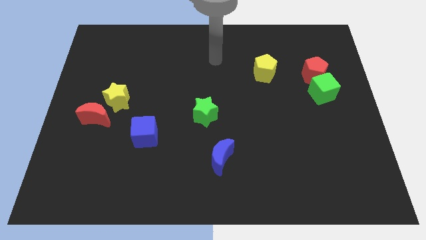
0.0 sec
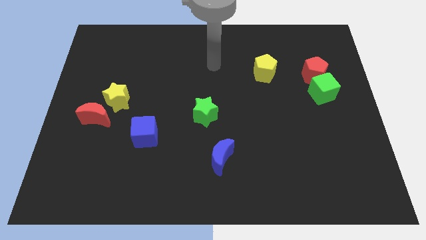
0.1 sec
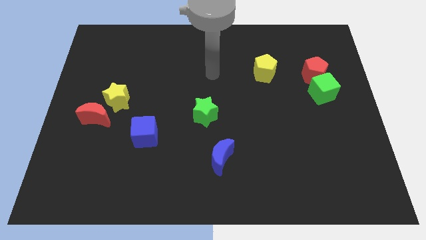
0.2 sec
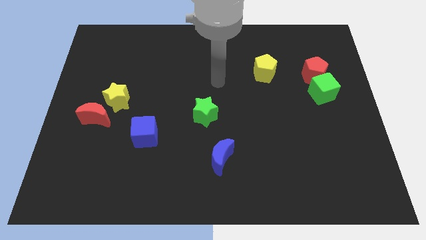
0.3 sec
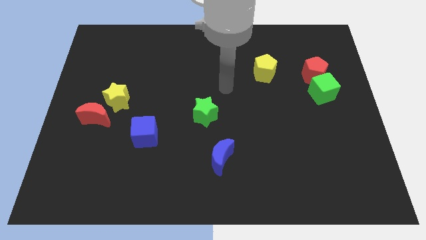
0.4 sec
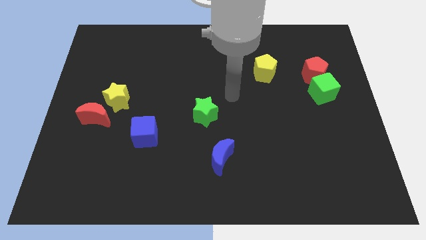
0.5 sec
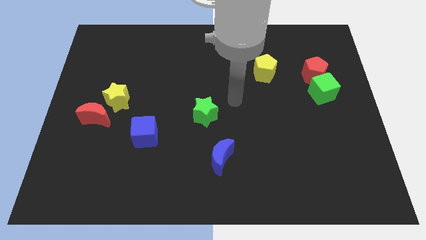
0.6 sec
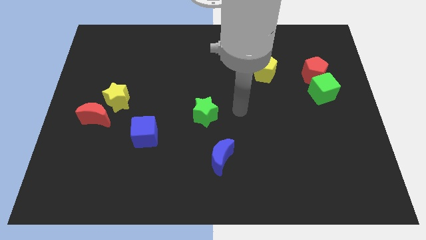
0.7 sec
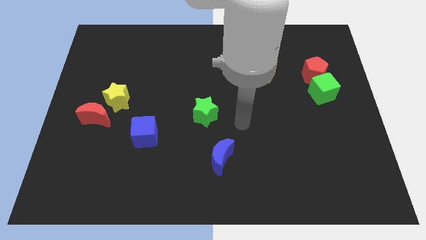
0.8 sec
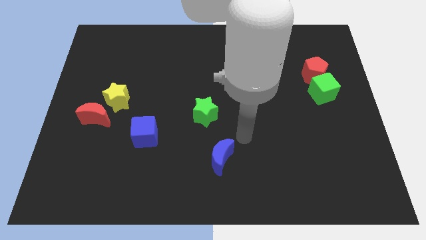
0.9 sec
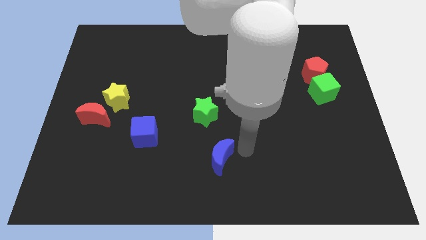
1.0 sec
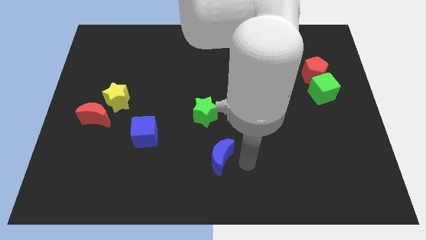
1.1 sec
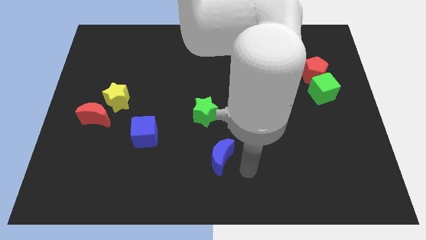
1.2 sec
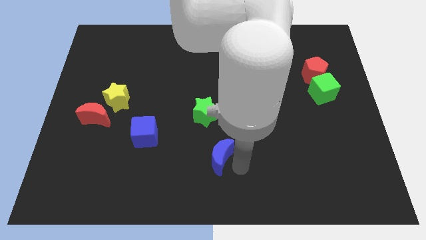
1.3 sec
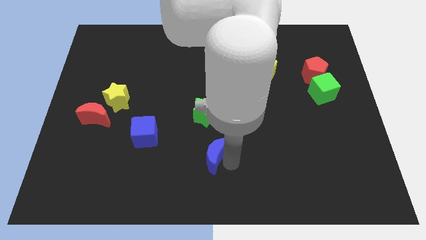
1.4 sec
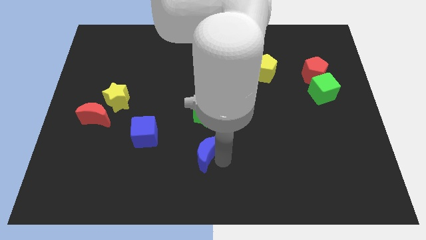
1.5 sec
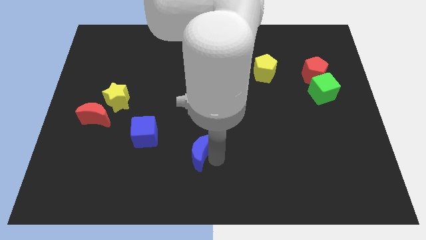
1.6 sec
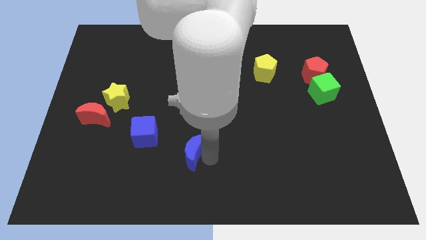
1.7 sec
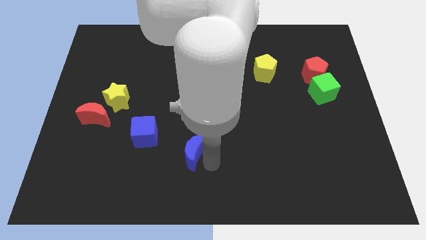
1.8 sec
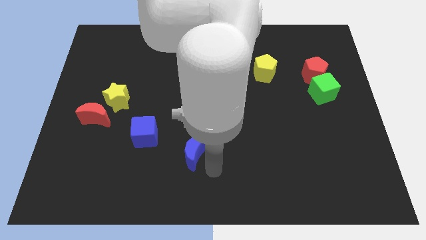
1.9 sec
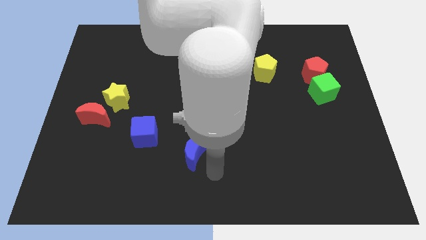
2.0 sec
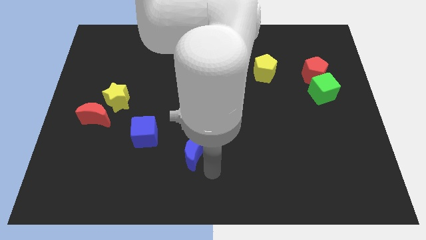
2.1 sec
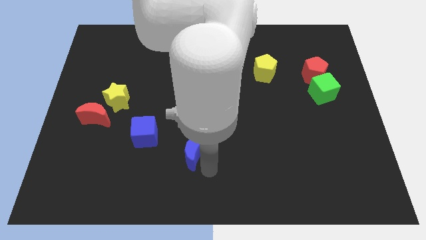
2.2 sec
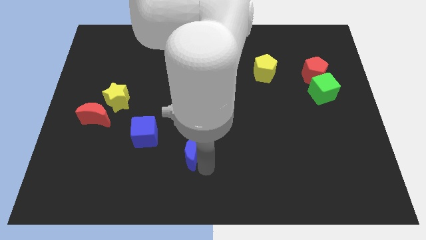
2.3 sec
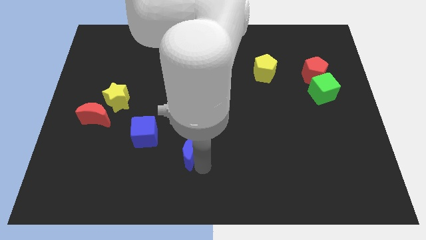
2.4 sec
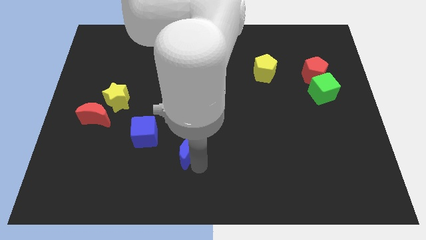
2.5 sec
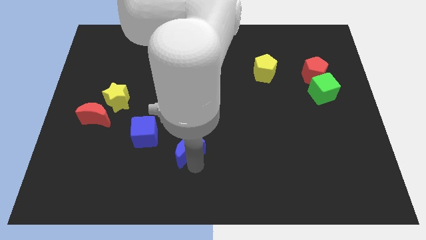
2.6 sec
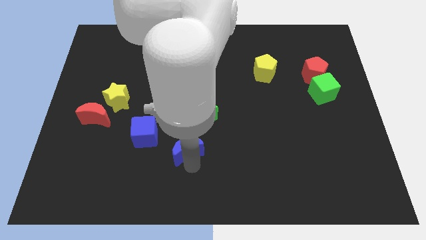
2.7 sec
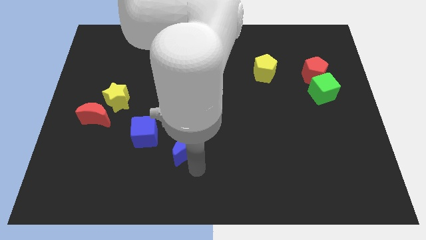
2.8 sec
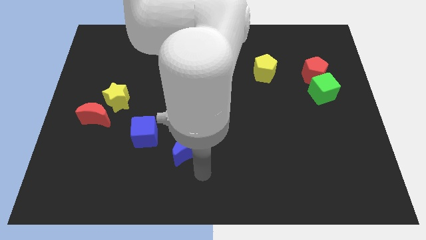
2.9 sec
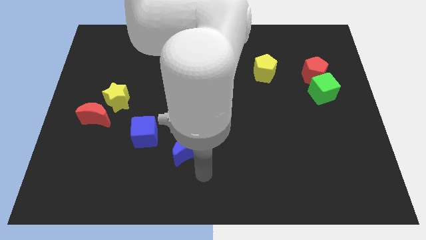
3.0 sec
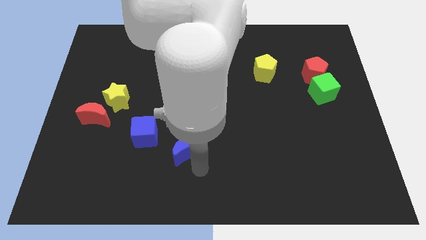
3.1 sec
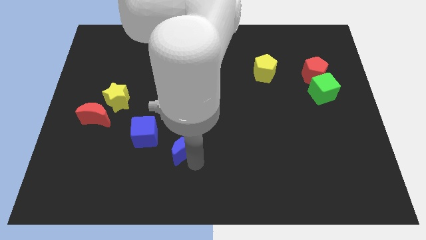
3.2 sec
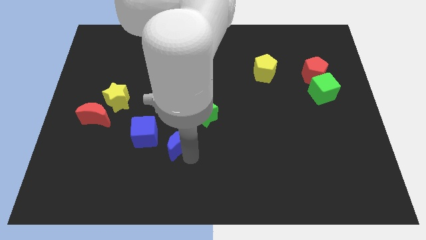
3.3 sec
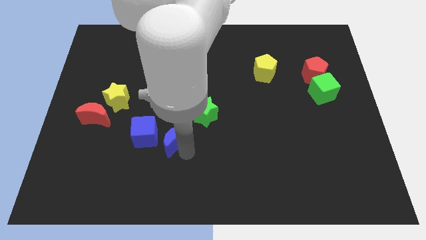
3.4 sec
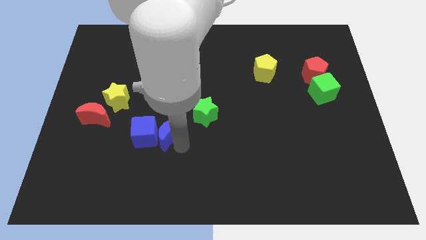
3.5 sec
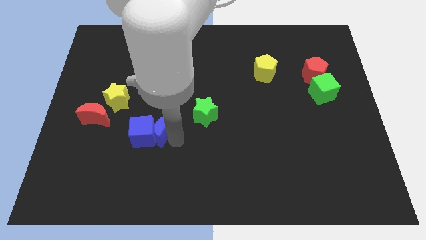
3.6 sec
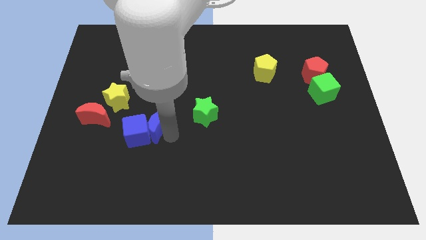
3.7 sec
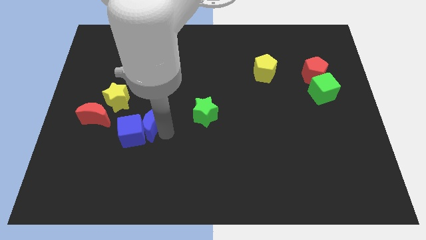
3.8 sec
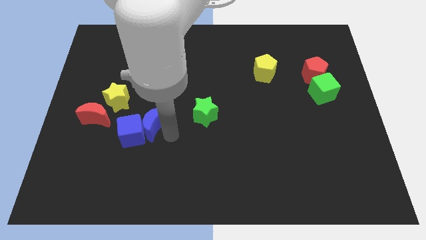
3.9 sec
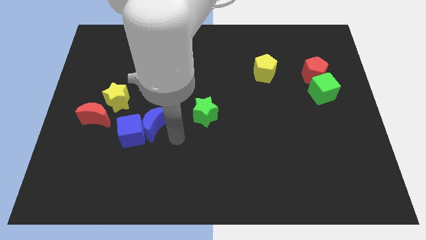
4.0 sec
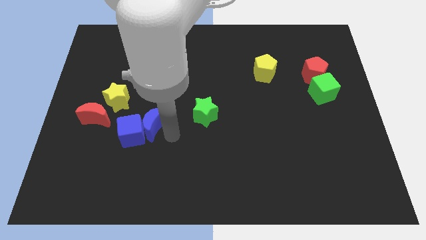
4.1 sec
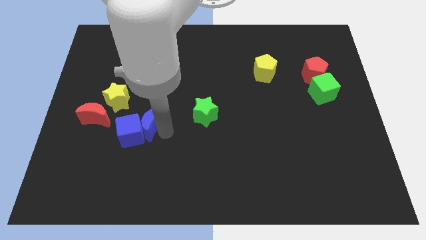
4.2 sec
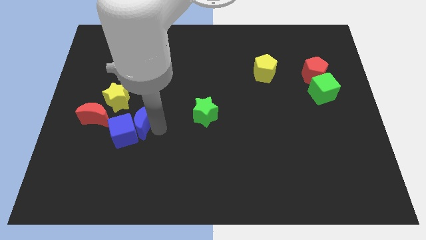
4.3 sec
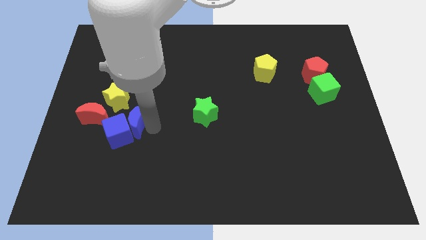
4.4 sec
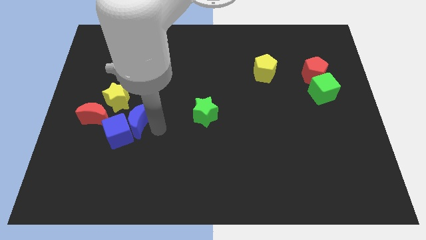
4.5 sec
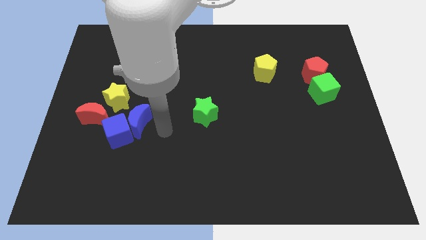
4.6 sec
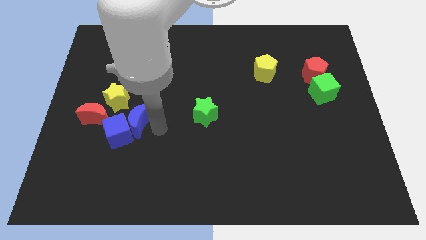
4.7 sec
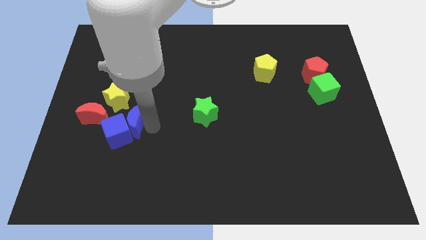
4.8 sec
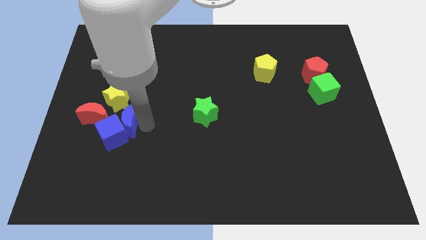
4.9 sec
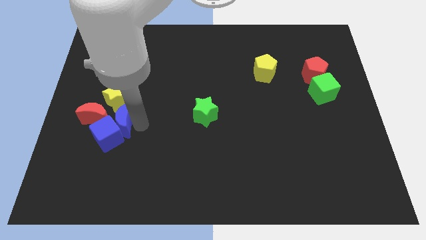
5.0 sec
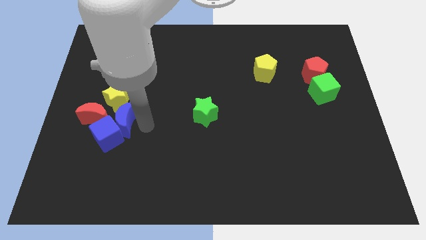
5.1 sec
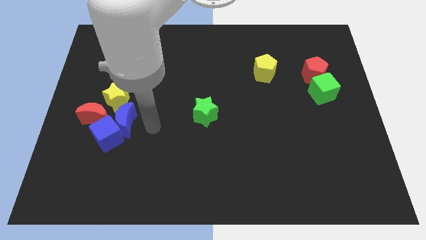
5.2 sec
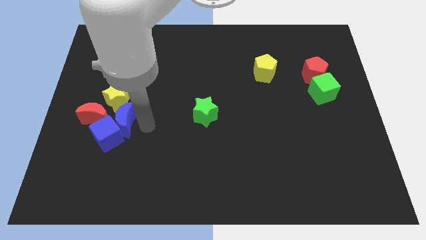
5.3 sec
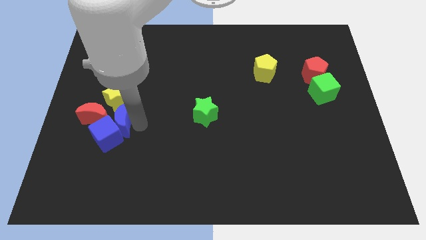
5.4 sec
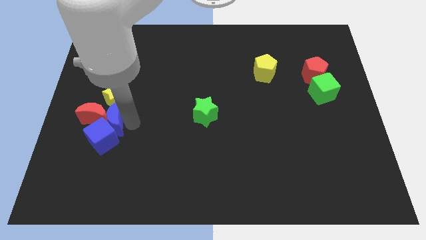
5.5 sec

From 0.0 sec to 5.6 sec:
put the blue moon next to the red moon

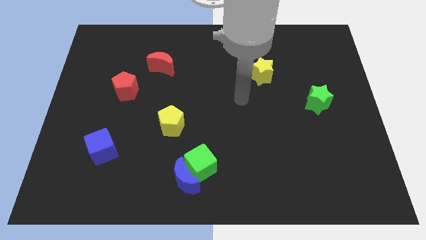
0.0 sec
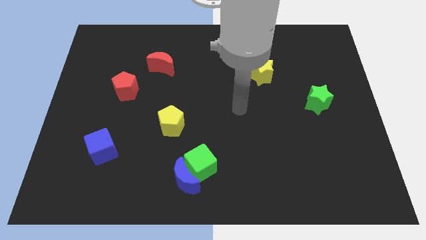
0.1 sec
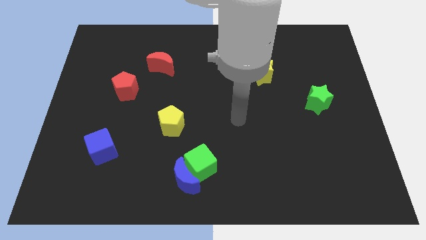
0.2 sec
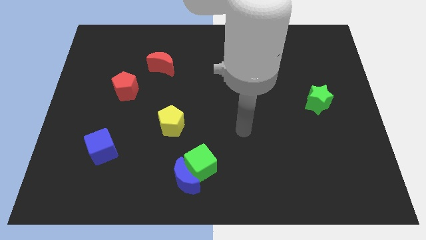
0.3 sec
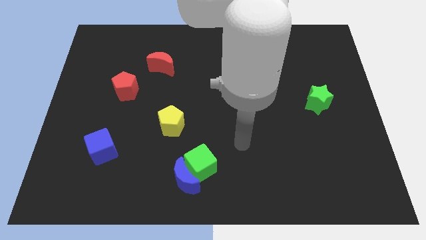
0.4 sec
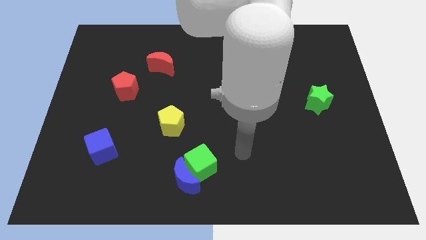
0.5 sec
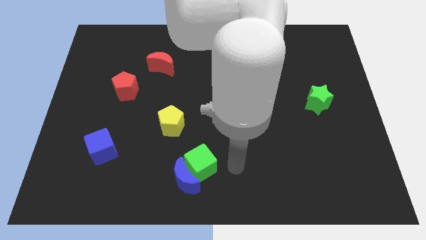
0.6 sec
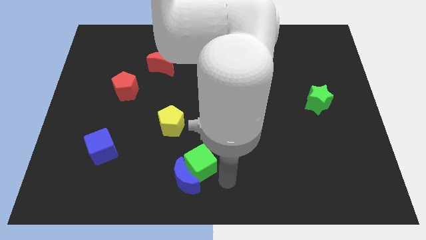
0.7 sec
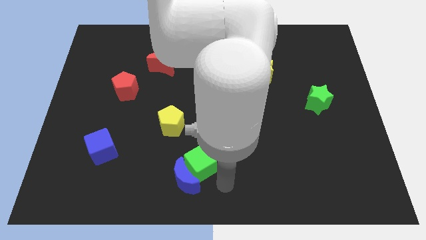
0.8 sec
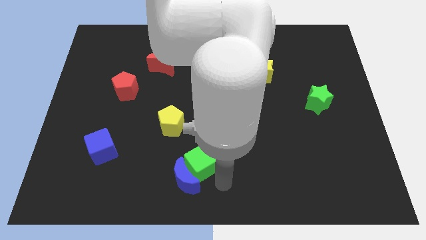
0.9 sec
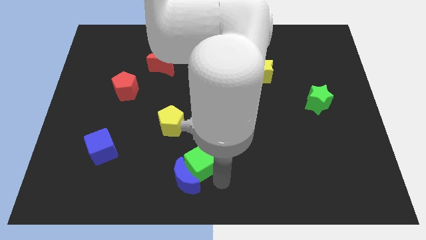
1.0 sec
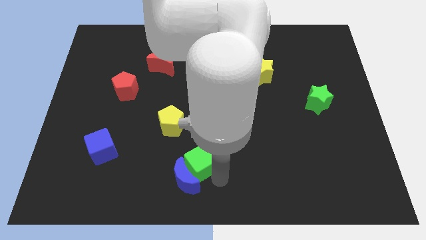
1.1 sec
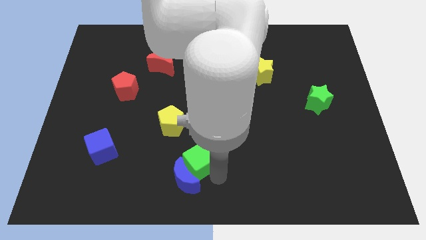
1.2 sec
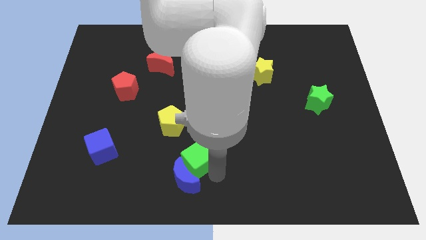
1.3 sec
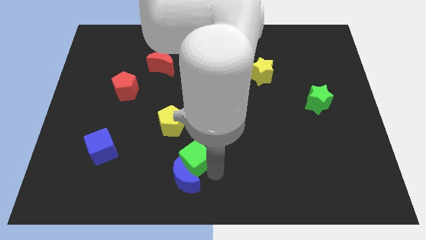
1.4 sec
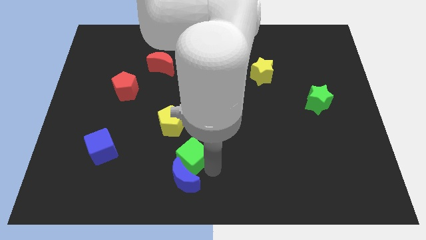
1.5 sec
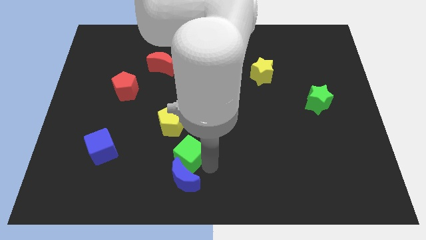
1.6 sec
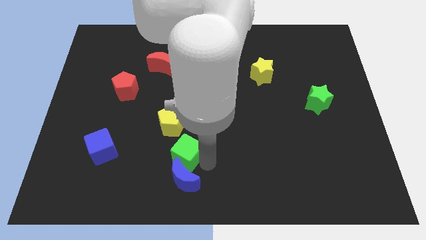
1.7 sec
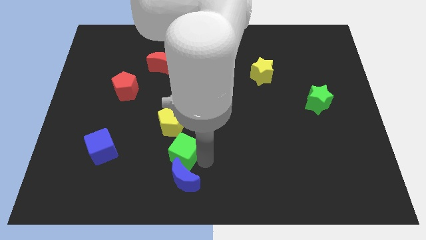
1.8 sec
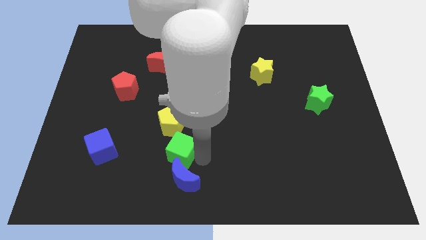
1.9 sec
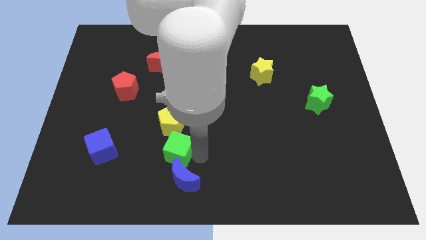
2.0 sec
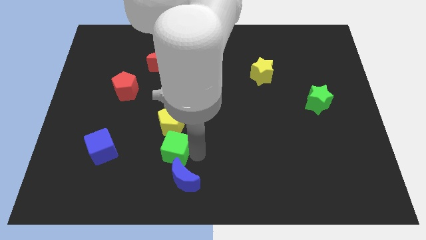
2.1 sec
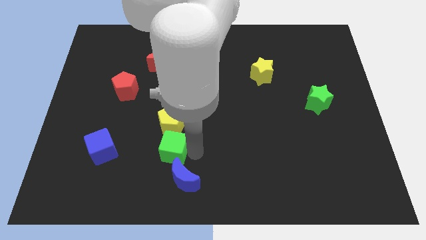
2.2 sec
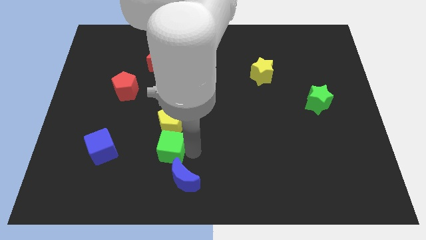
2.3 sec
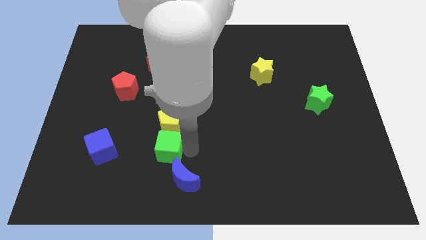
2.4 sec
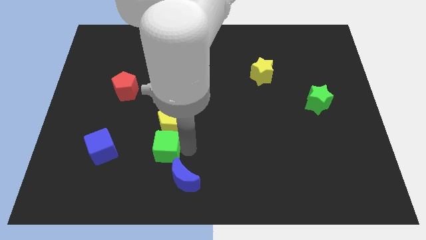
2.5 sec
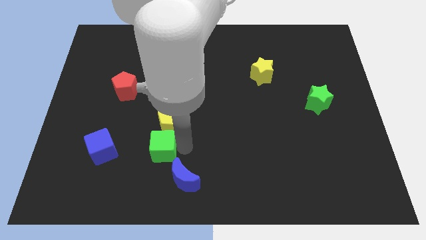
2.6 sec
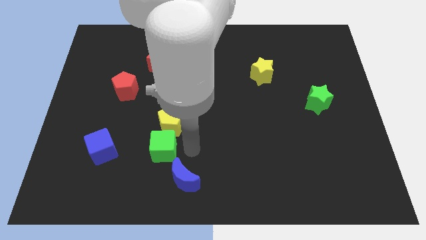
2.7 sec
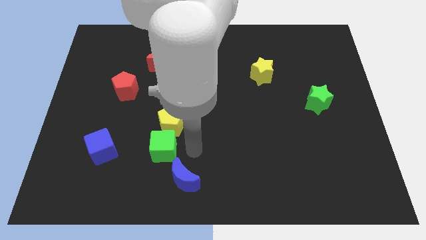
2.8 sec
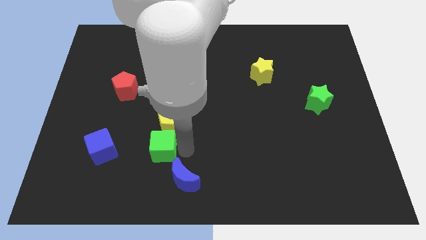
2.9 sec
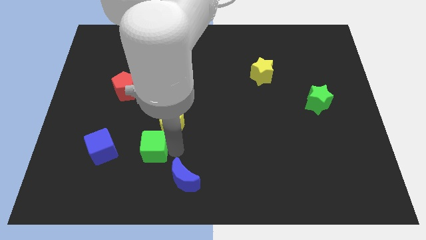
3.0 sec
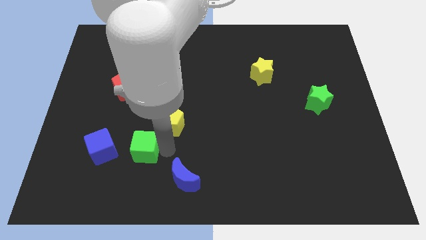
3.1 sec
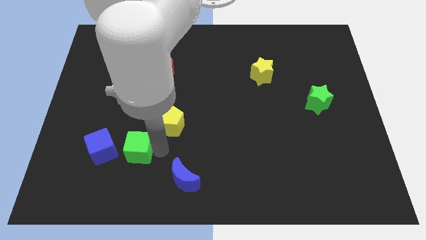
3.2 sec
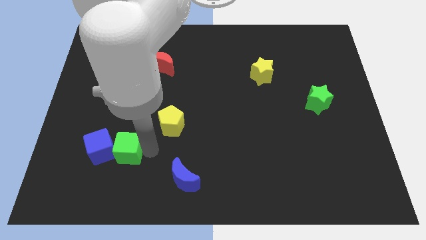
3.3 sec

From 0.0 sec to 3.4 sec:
slide the green cube next to the blue cube
